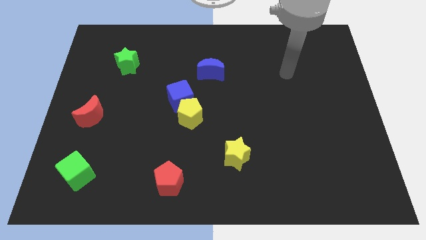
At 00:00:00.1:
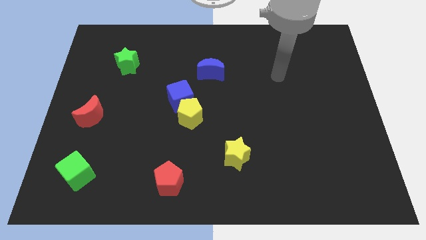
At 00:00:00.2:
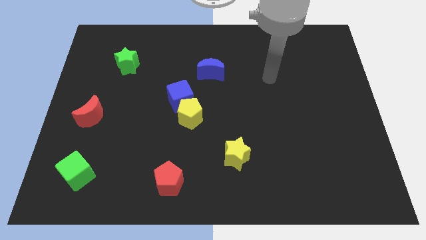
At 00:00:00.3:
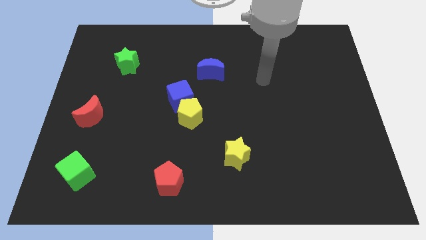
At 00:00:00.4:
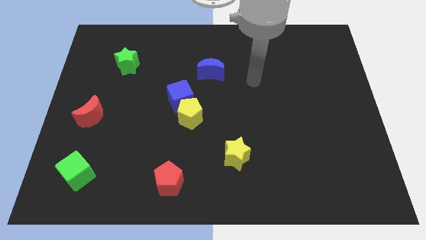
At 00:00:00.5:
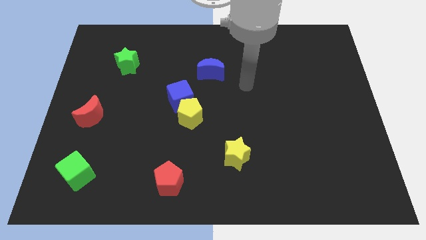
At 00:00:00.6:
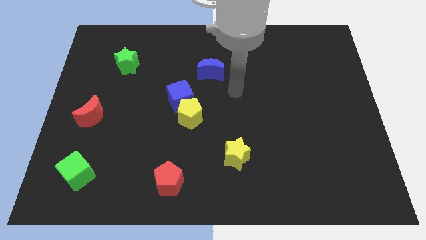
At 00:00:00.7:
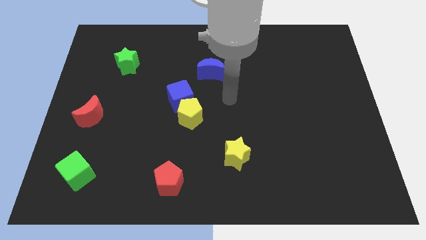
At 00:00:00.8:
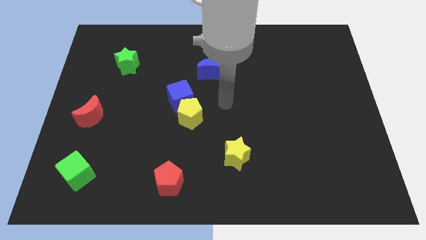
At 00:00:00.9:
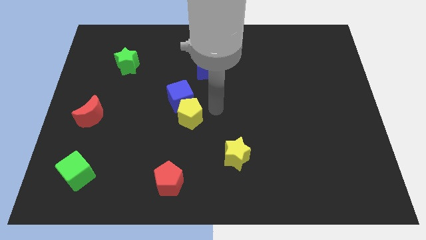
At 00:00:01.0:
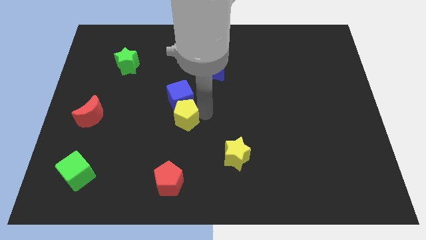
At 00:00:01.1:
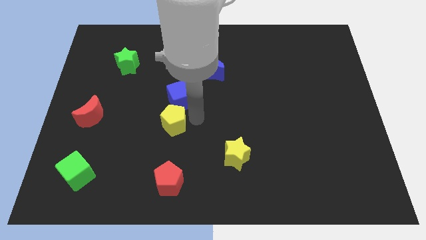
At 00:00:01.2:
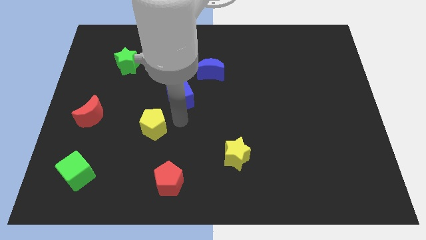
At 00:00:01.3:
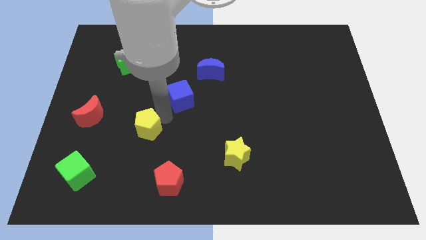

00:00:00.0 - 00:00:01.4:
pull the blue cube apart from the yellow pentagon

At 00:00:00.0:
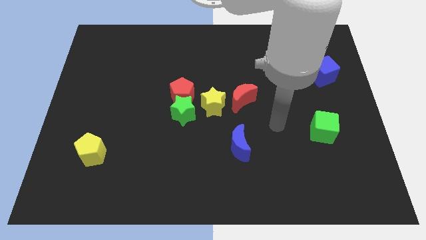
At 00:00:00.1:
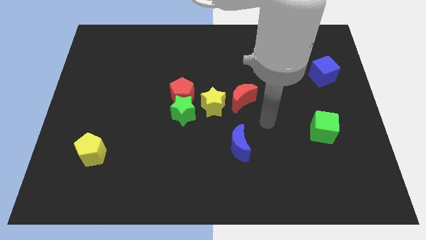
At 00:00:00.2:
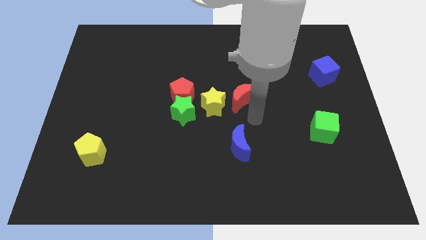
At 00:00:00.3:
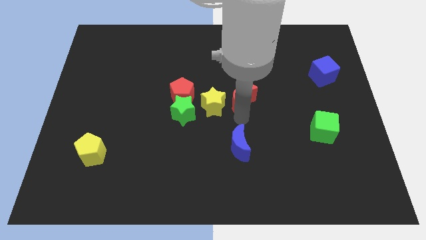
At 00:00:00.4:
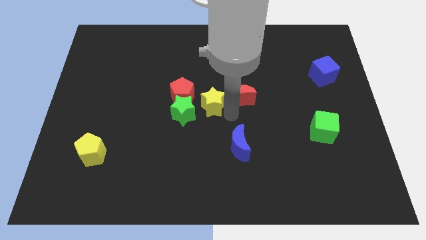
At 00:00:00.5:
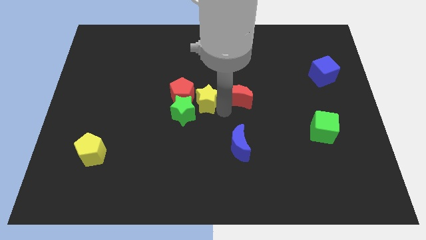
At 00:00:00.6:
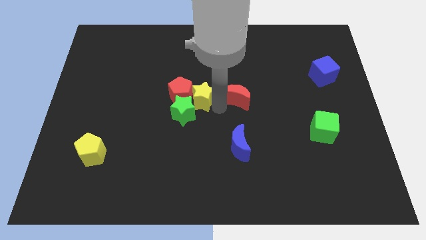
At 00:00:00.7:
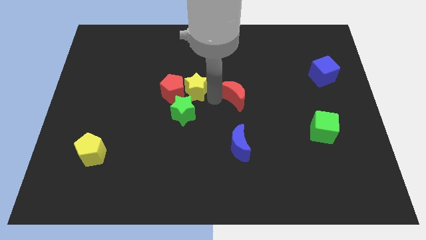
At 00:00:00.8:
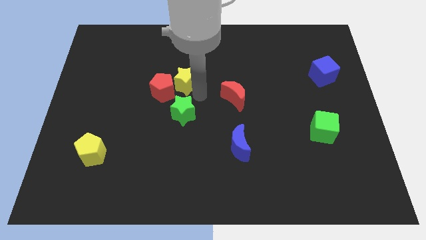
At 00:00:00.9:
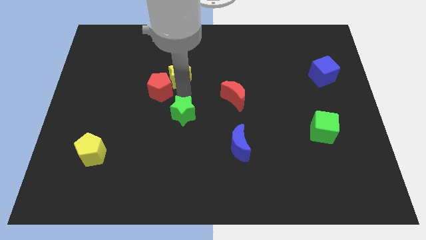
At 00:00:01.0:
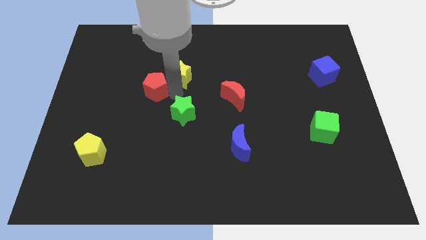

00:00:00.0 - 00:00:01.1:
separate the green star from the red pentagon and yellow star

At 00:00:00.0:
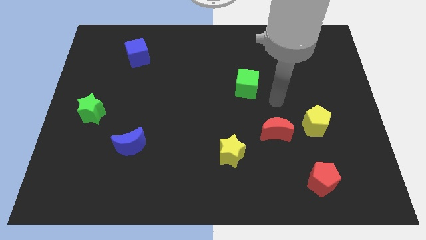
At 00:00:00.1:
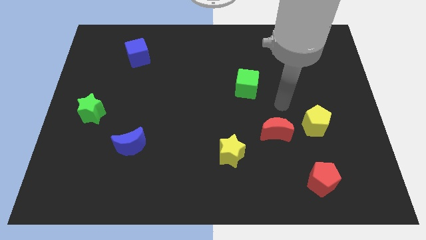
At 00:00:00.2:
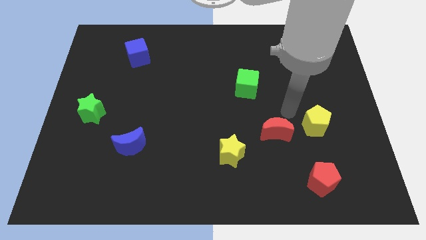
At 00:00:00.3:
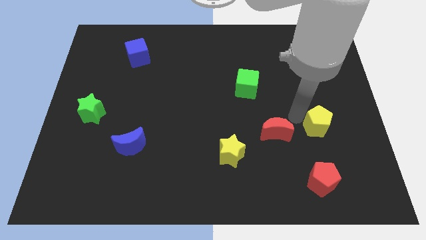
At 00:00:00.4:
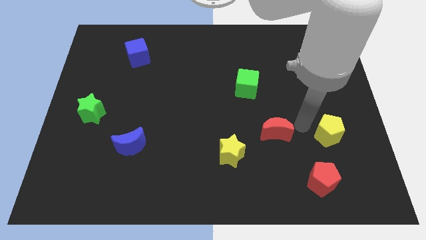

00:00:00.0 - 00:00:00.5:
separate the red moon from the yellow pentagon

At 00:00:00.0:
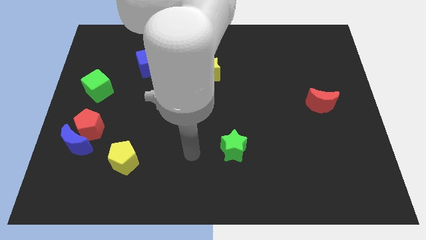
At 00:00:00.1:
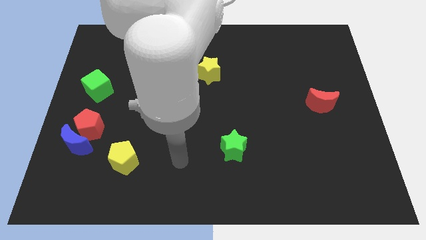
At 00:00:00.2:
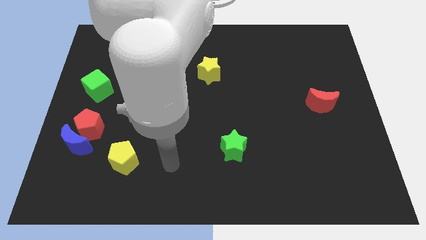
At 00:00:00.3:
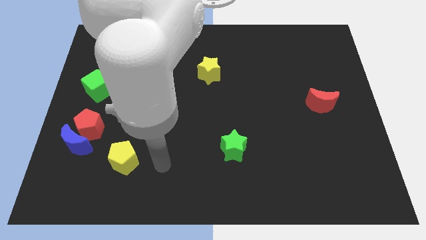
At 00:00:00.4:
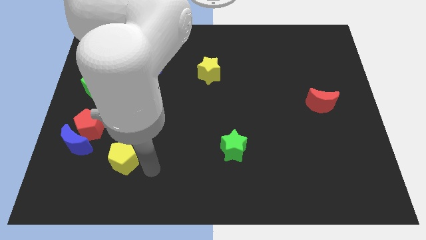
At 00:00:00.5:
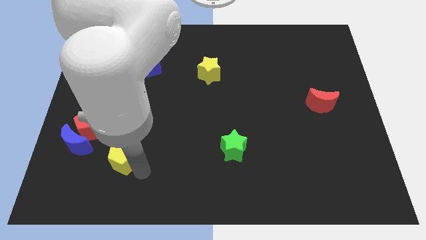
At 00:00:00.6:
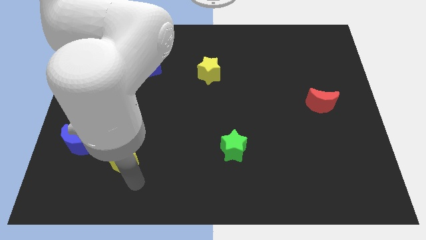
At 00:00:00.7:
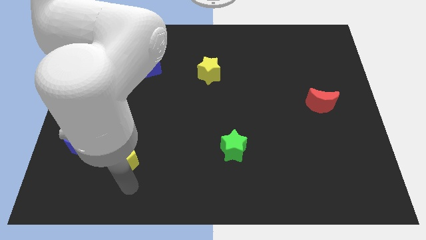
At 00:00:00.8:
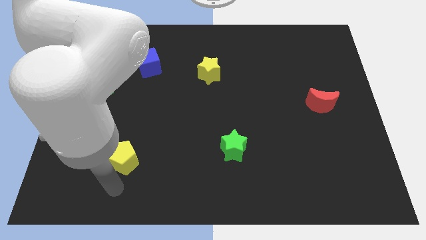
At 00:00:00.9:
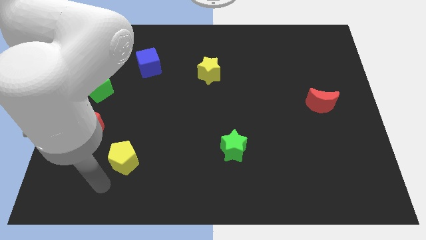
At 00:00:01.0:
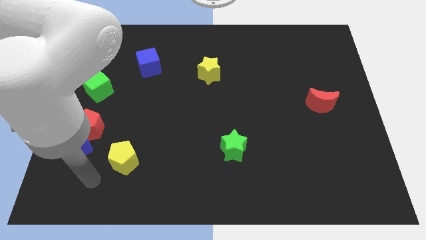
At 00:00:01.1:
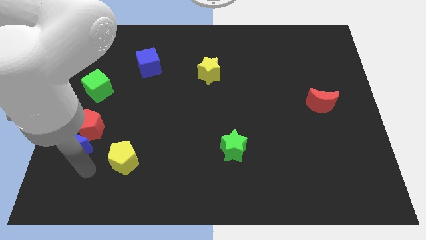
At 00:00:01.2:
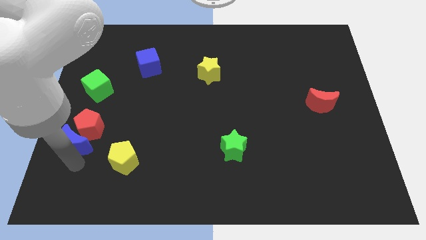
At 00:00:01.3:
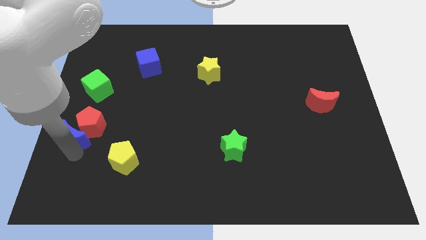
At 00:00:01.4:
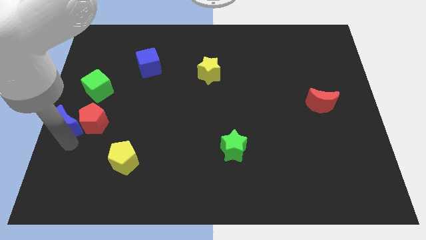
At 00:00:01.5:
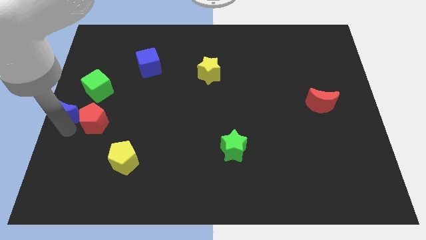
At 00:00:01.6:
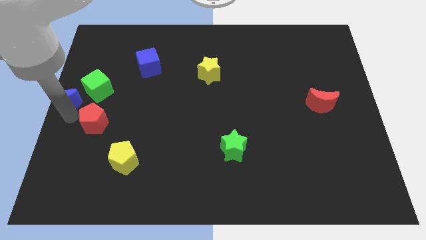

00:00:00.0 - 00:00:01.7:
move the red pentagon away from the blue moon

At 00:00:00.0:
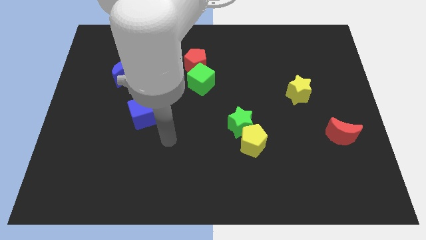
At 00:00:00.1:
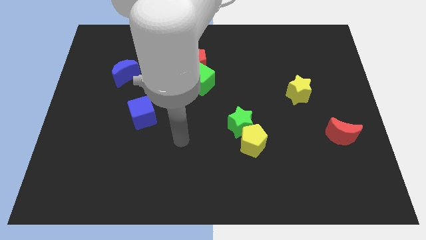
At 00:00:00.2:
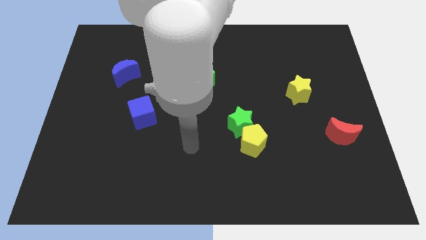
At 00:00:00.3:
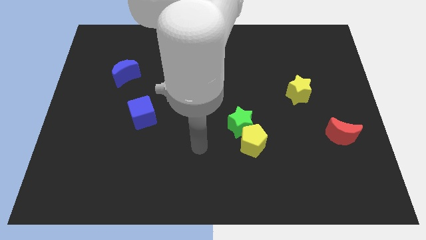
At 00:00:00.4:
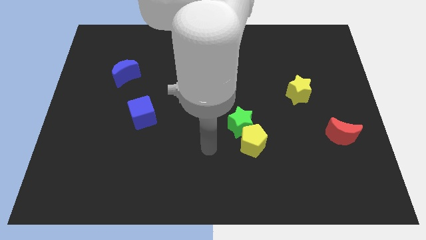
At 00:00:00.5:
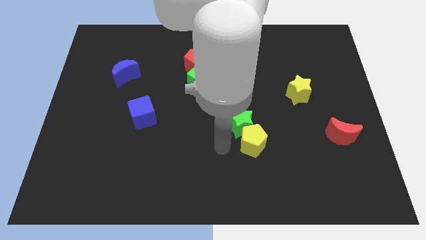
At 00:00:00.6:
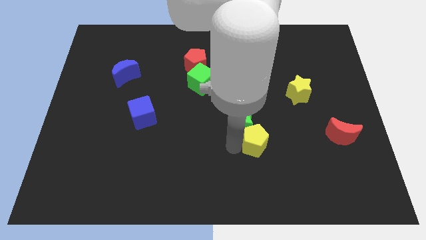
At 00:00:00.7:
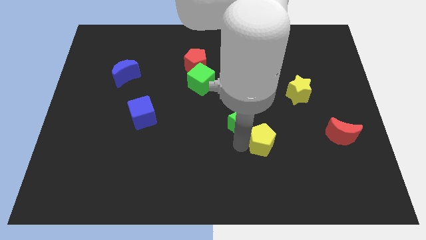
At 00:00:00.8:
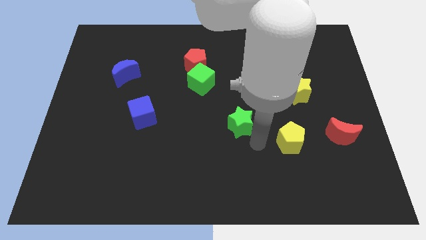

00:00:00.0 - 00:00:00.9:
separate the green star from the yellow pentagon

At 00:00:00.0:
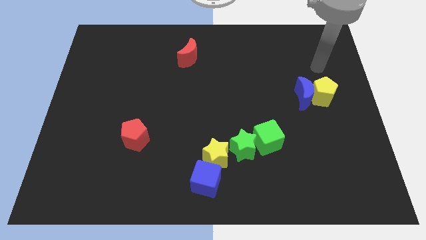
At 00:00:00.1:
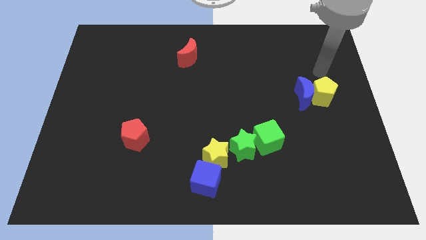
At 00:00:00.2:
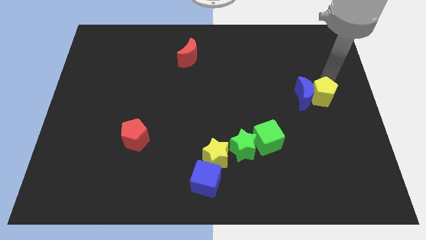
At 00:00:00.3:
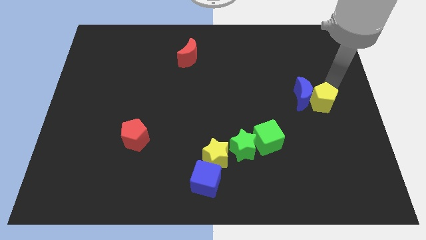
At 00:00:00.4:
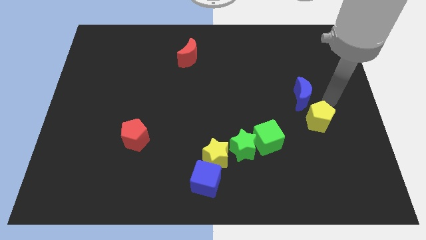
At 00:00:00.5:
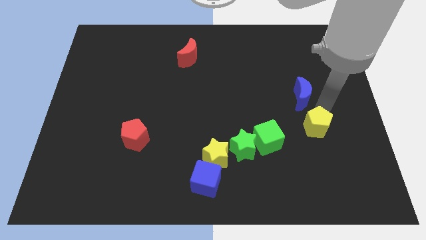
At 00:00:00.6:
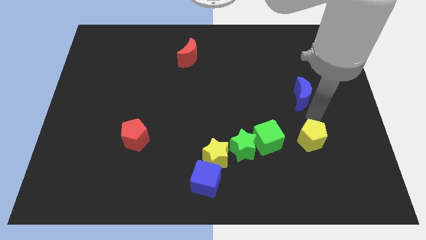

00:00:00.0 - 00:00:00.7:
move the blue moon away from the yellow pentagon

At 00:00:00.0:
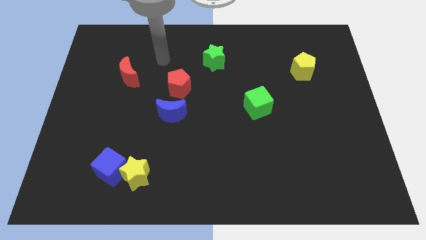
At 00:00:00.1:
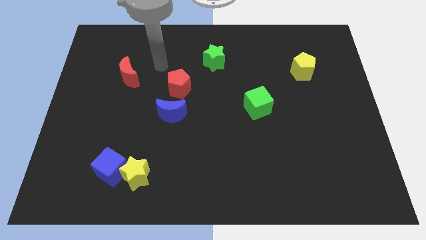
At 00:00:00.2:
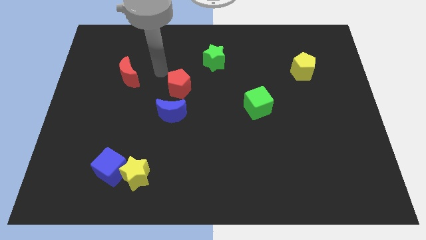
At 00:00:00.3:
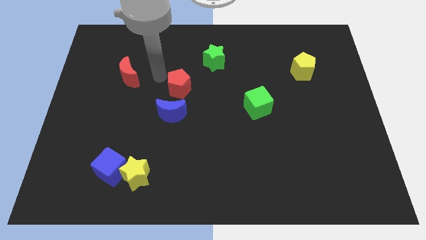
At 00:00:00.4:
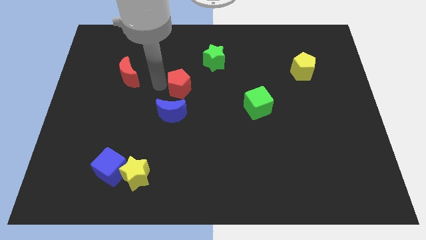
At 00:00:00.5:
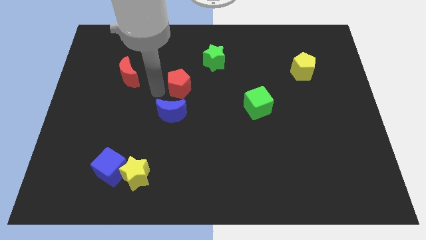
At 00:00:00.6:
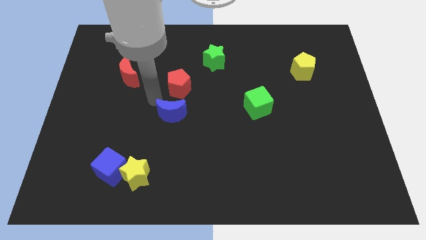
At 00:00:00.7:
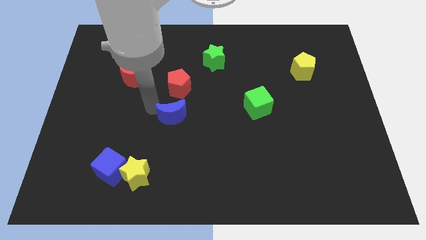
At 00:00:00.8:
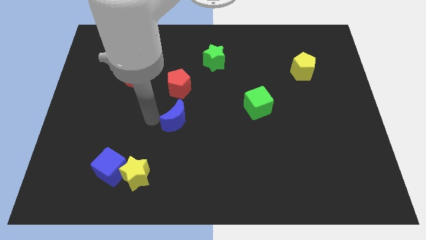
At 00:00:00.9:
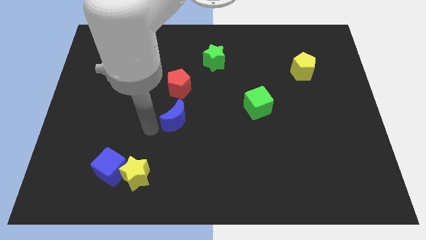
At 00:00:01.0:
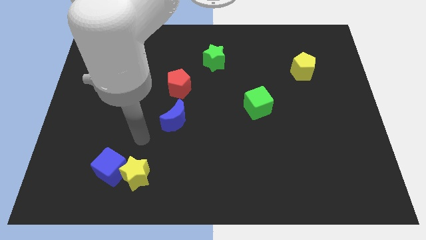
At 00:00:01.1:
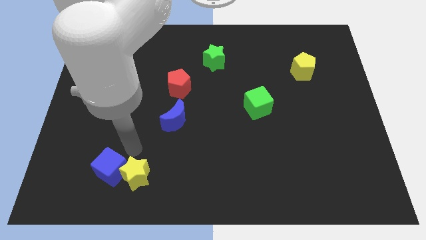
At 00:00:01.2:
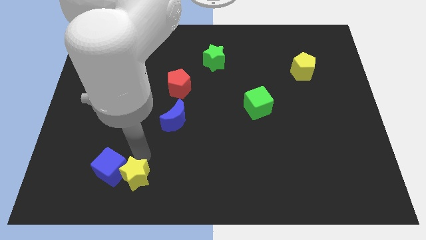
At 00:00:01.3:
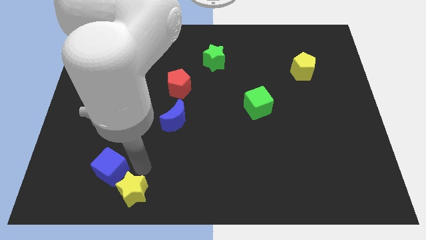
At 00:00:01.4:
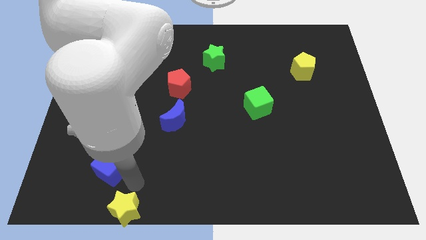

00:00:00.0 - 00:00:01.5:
separate the blue cube from the yellow star

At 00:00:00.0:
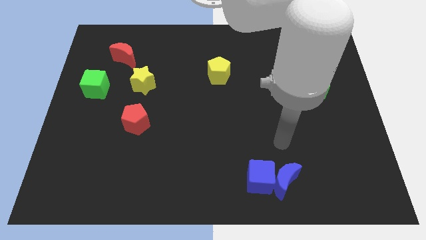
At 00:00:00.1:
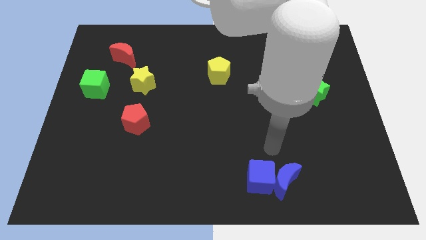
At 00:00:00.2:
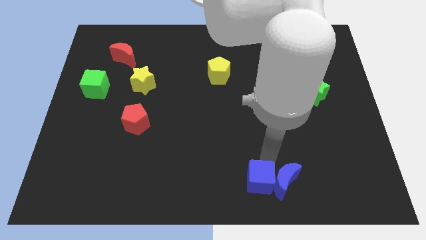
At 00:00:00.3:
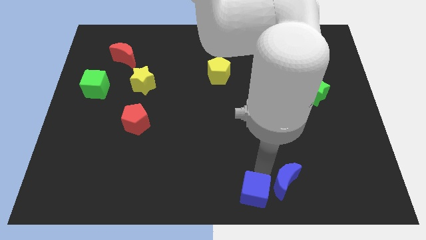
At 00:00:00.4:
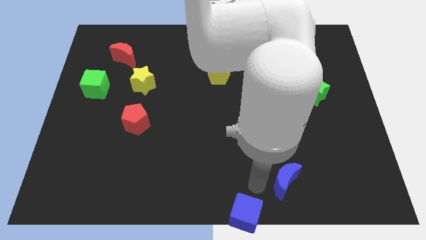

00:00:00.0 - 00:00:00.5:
move the blue moon away from the blue cube

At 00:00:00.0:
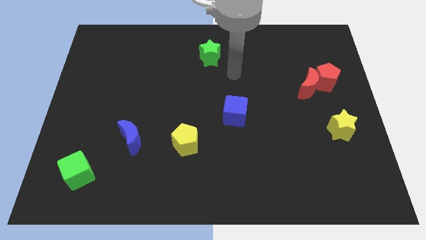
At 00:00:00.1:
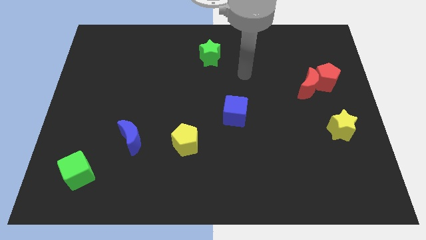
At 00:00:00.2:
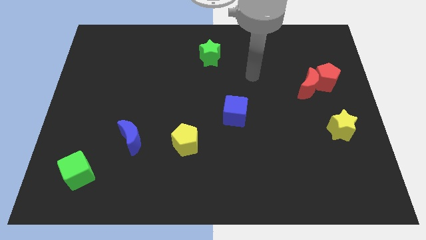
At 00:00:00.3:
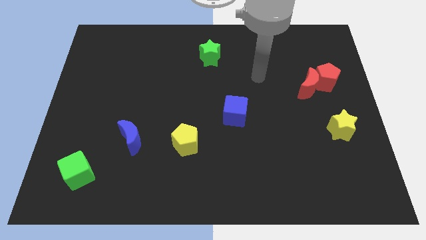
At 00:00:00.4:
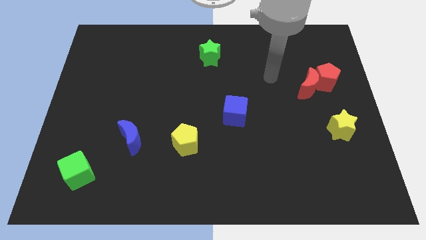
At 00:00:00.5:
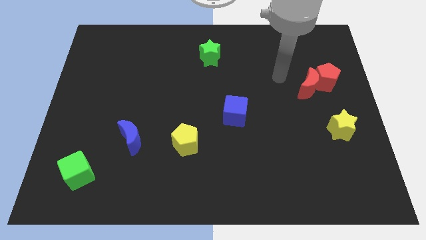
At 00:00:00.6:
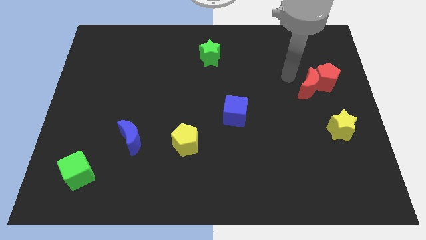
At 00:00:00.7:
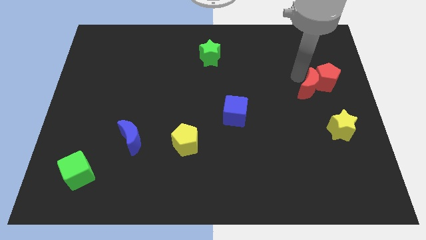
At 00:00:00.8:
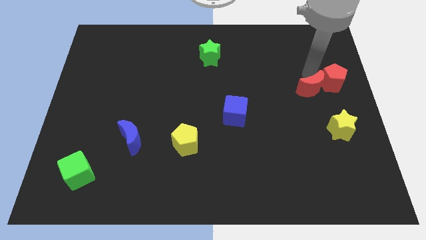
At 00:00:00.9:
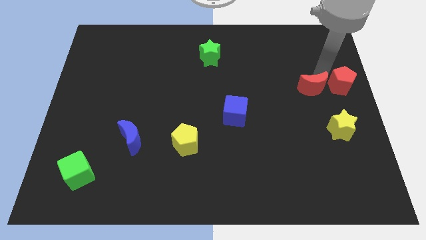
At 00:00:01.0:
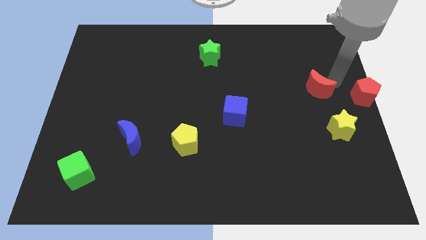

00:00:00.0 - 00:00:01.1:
separate the red moon from the red pentagon
